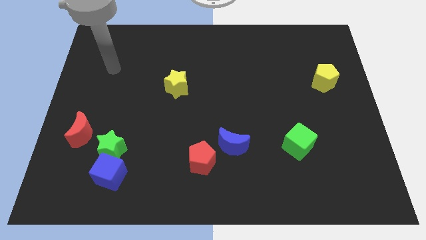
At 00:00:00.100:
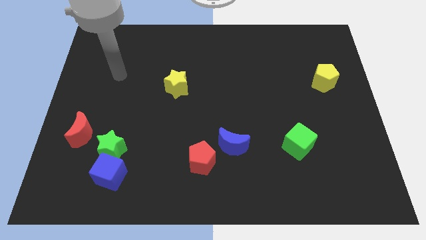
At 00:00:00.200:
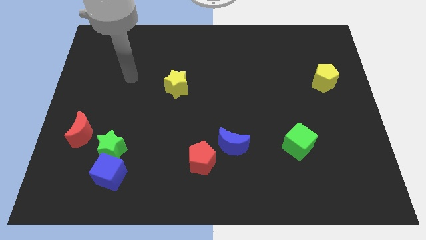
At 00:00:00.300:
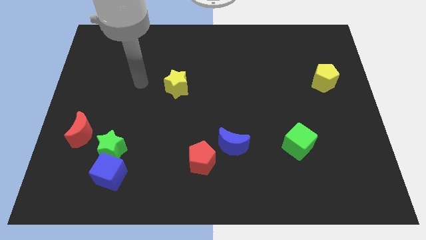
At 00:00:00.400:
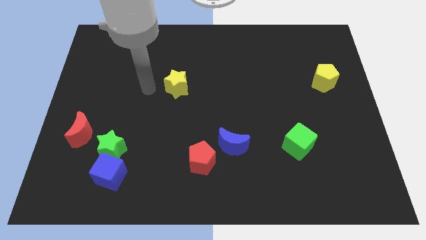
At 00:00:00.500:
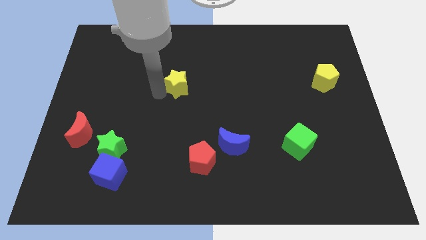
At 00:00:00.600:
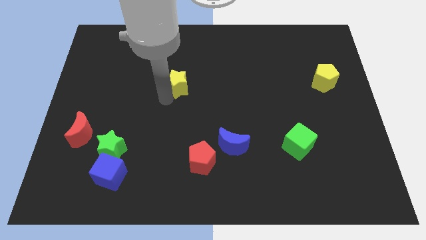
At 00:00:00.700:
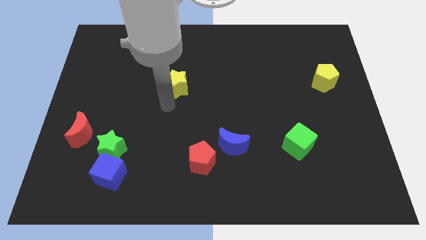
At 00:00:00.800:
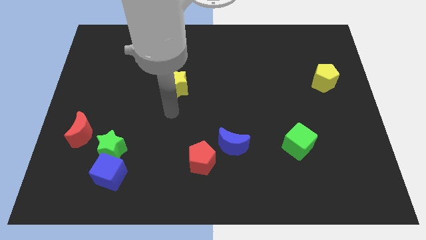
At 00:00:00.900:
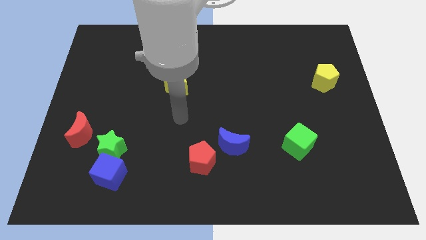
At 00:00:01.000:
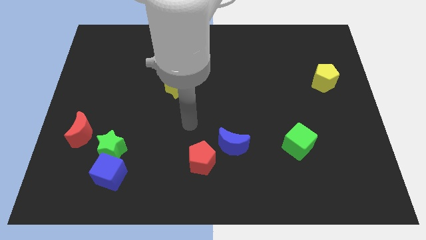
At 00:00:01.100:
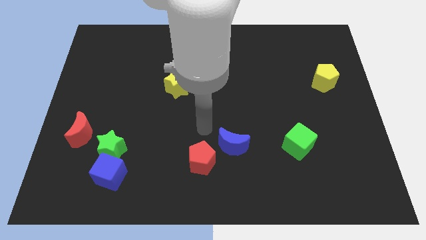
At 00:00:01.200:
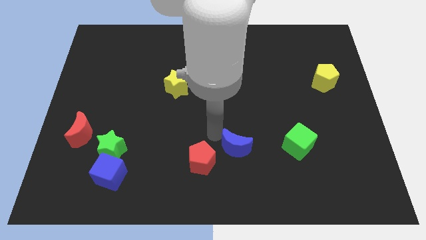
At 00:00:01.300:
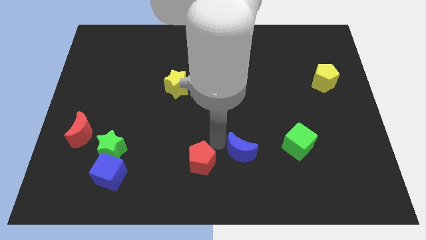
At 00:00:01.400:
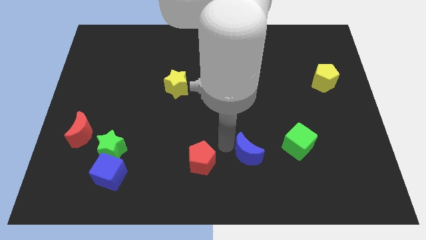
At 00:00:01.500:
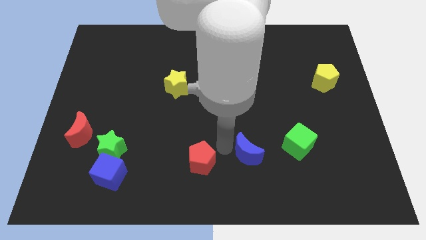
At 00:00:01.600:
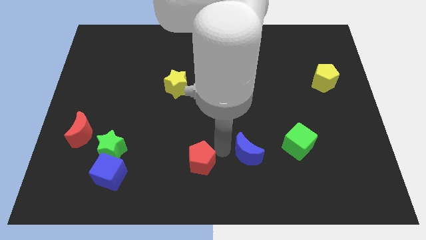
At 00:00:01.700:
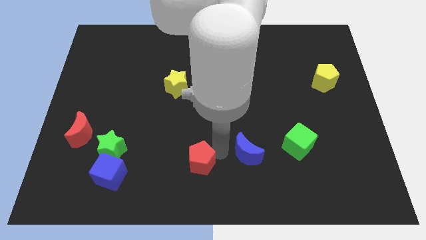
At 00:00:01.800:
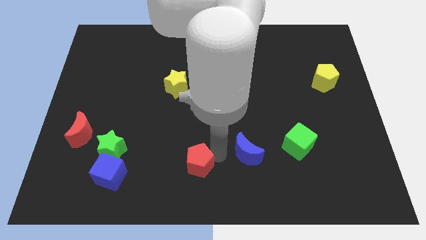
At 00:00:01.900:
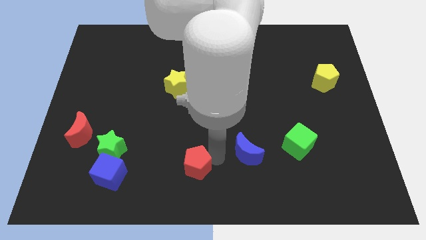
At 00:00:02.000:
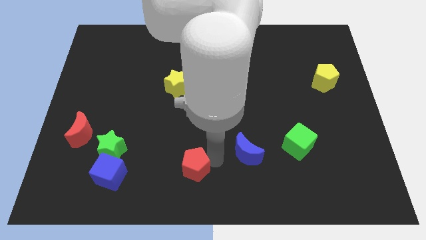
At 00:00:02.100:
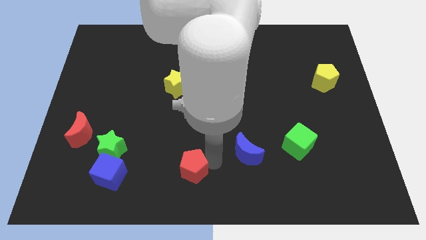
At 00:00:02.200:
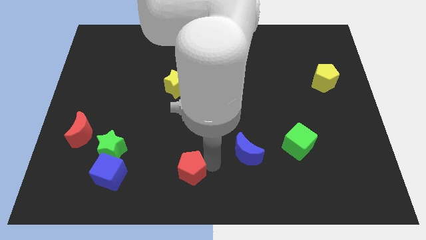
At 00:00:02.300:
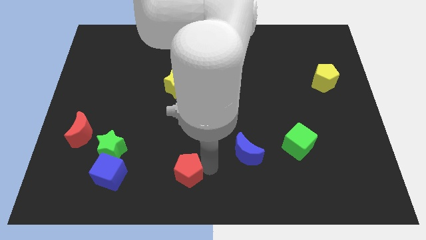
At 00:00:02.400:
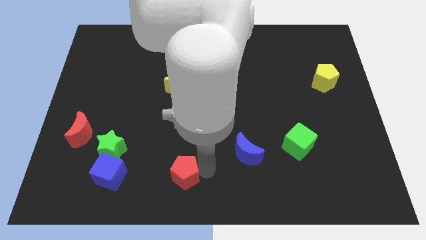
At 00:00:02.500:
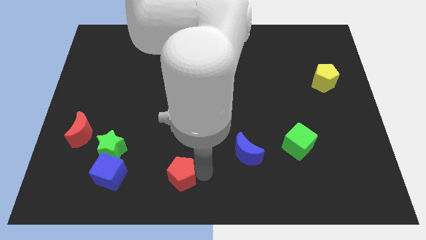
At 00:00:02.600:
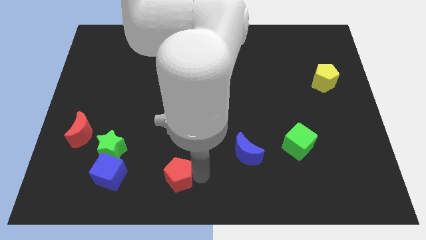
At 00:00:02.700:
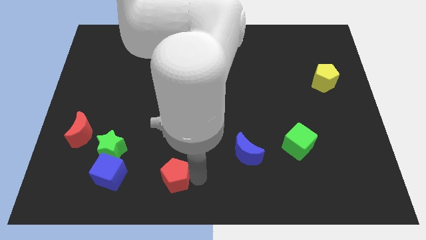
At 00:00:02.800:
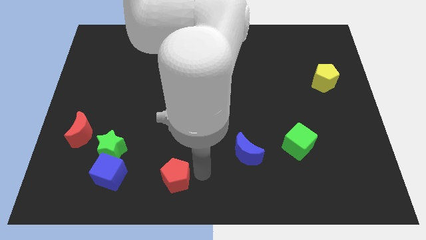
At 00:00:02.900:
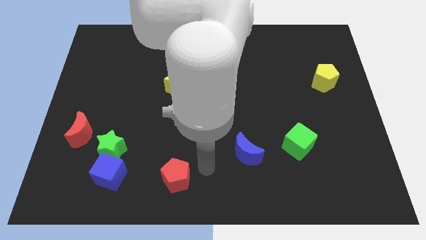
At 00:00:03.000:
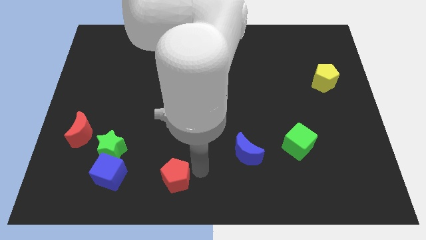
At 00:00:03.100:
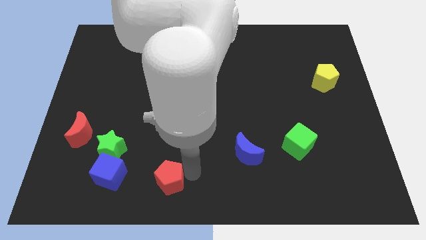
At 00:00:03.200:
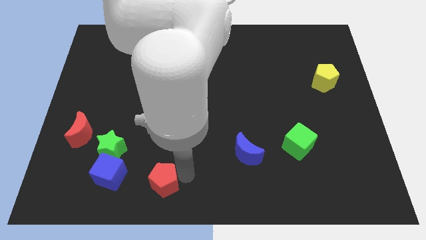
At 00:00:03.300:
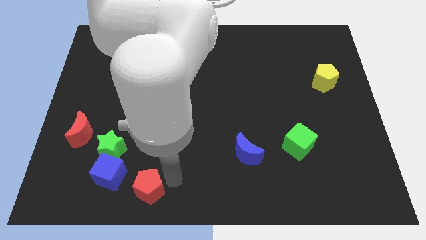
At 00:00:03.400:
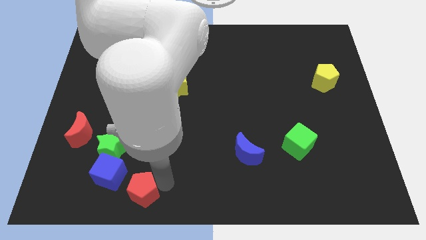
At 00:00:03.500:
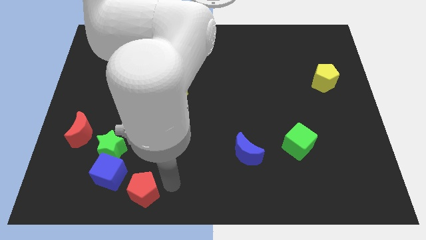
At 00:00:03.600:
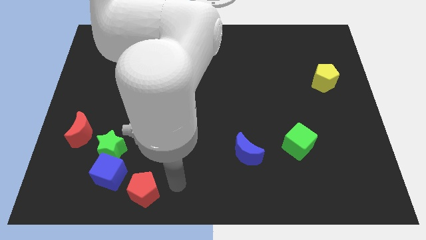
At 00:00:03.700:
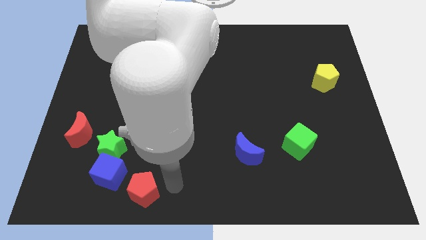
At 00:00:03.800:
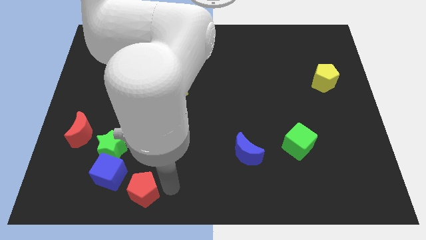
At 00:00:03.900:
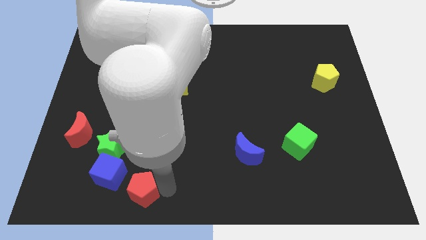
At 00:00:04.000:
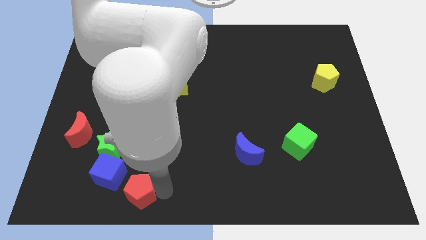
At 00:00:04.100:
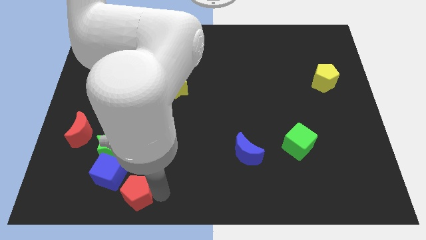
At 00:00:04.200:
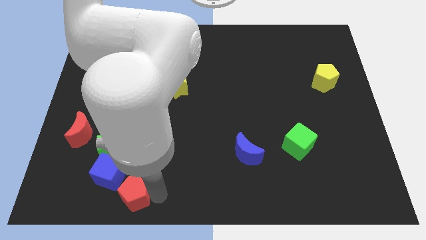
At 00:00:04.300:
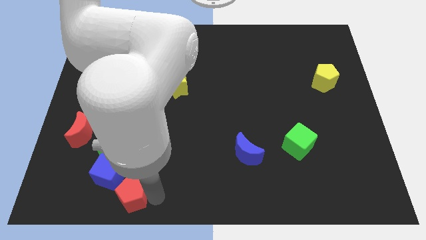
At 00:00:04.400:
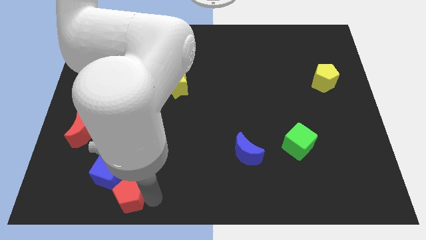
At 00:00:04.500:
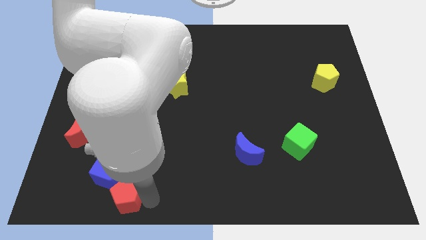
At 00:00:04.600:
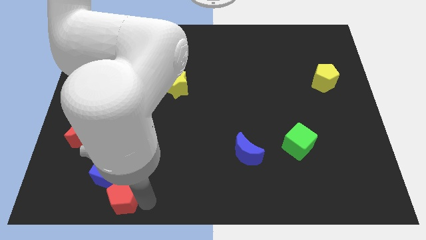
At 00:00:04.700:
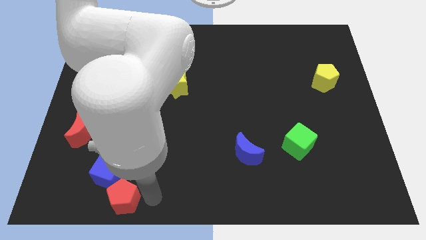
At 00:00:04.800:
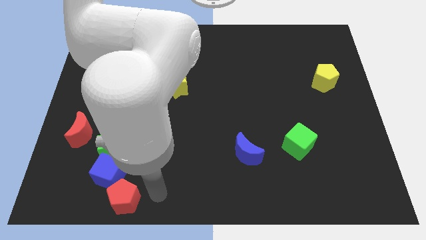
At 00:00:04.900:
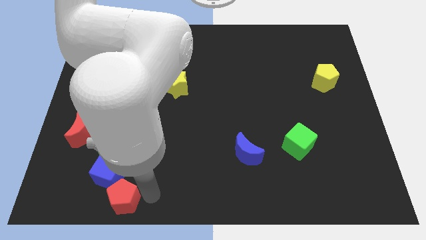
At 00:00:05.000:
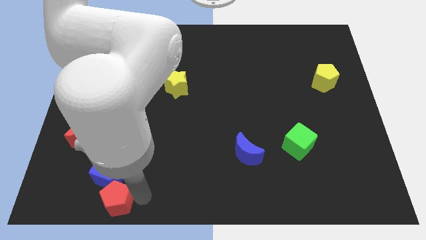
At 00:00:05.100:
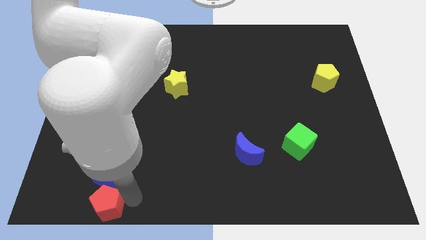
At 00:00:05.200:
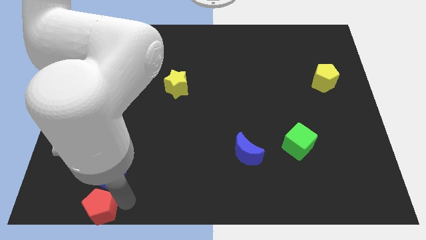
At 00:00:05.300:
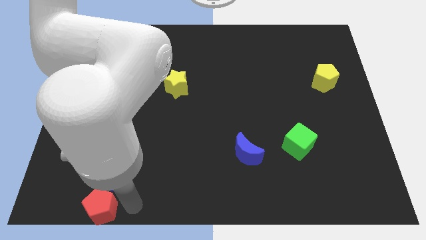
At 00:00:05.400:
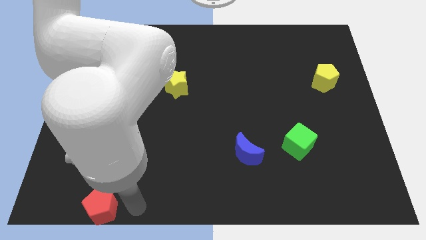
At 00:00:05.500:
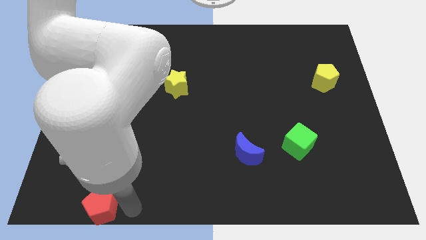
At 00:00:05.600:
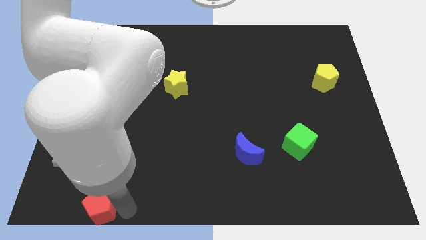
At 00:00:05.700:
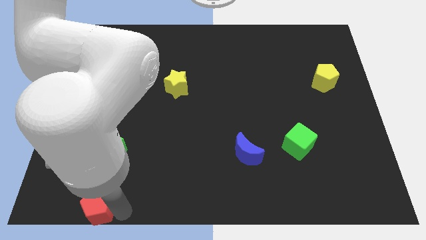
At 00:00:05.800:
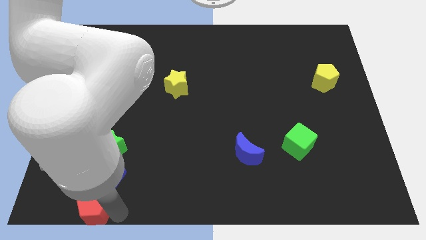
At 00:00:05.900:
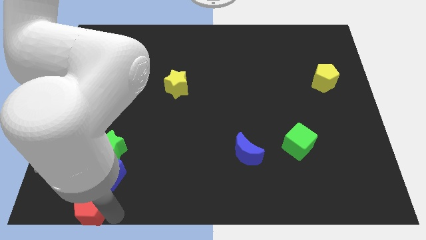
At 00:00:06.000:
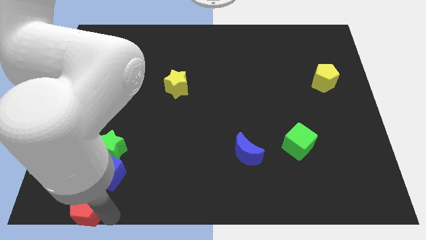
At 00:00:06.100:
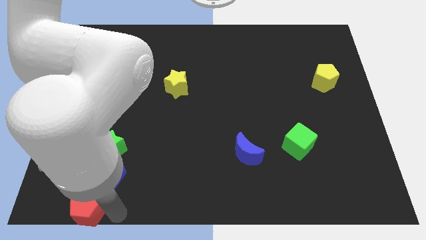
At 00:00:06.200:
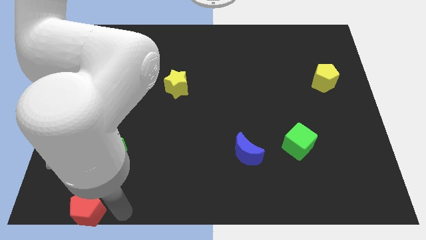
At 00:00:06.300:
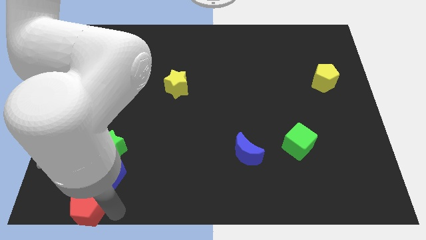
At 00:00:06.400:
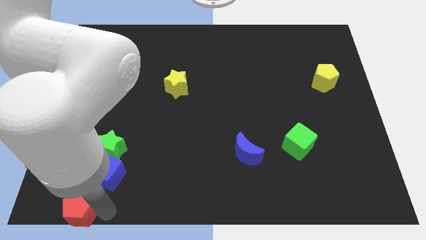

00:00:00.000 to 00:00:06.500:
push the red pentagon to the bottom left corner

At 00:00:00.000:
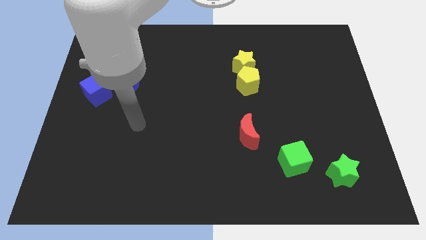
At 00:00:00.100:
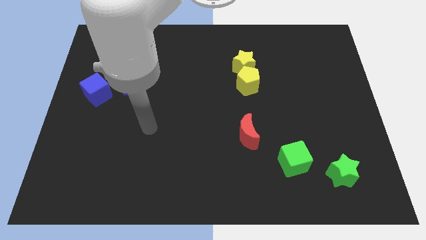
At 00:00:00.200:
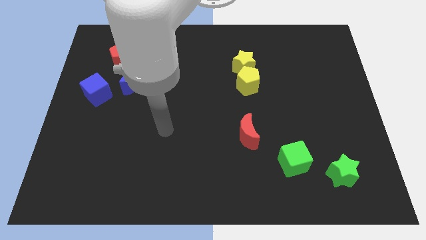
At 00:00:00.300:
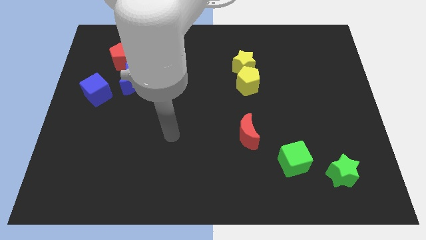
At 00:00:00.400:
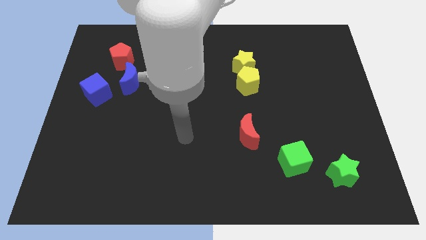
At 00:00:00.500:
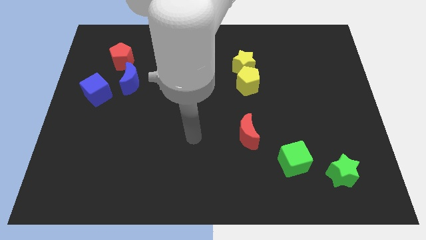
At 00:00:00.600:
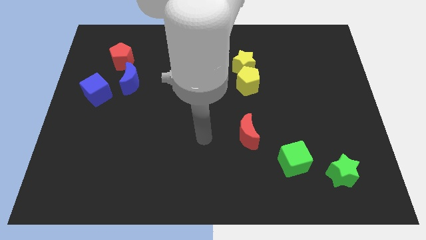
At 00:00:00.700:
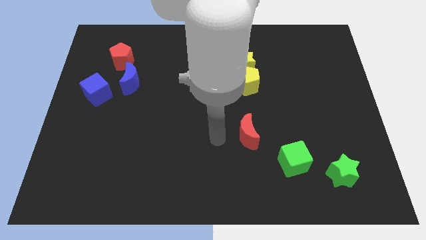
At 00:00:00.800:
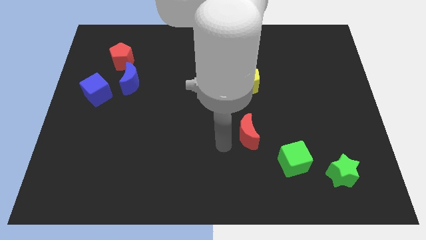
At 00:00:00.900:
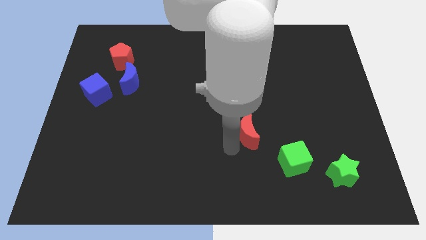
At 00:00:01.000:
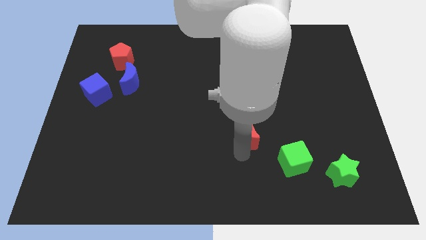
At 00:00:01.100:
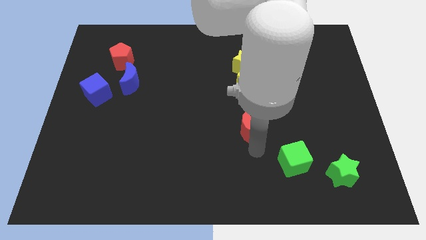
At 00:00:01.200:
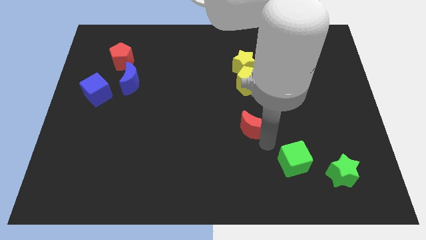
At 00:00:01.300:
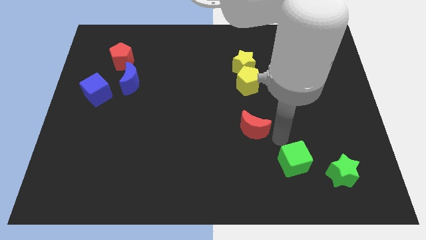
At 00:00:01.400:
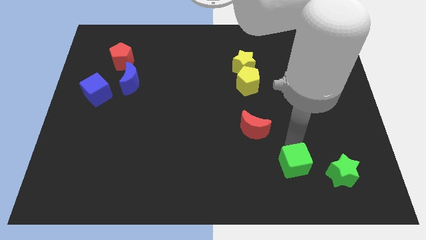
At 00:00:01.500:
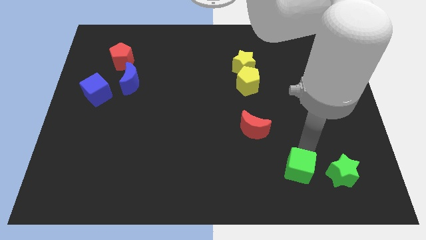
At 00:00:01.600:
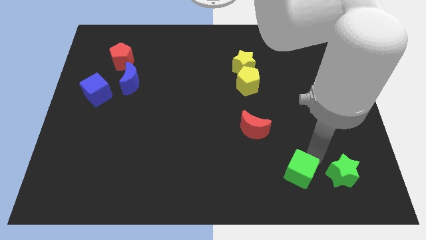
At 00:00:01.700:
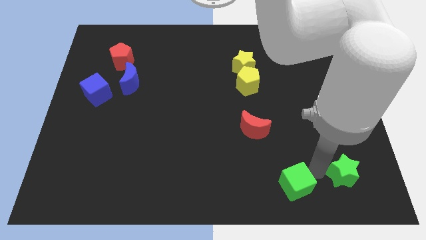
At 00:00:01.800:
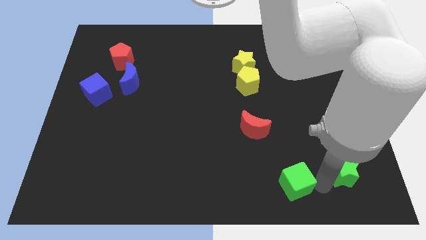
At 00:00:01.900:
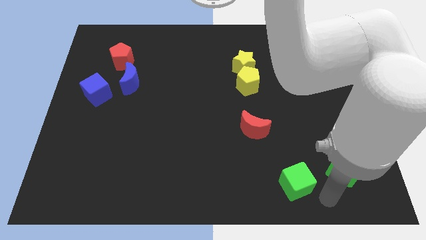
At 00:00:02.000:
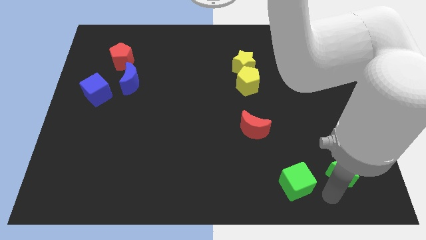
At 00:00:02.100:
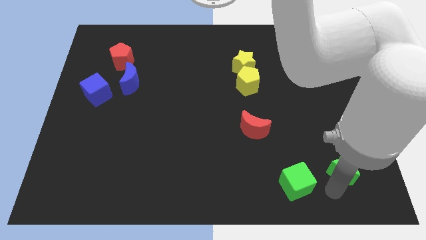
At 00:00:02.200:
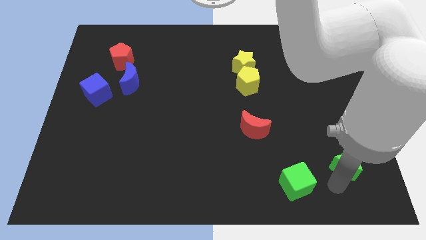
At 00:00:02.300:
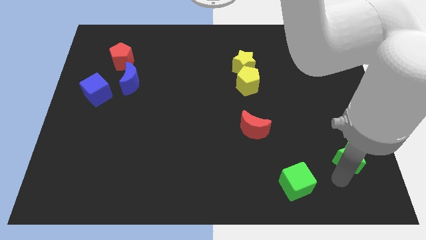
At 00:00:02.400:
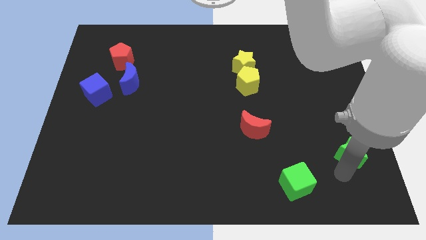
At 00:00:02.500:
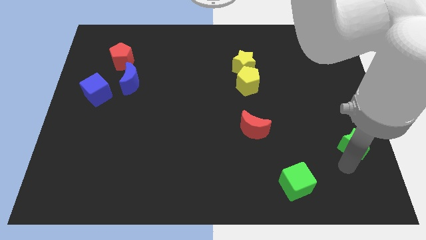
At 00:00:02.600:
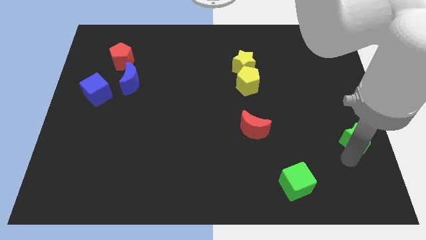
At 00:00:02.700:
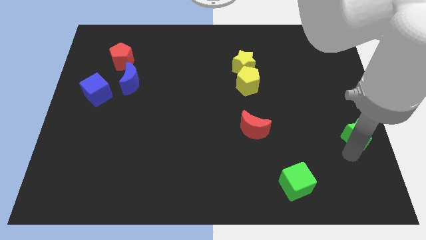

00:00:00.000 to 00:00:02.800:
put the green star to the right side of the board
